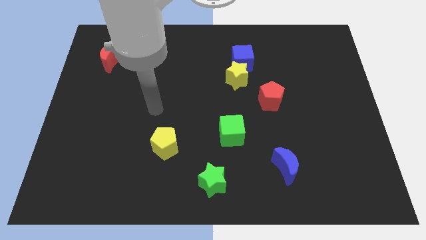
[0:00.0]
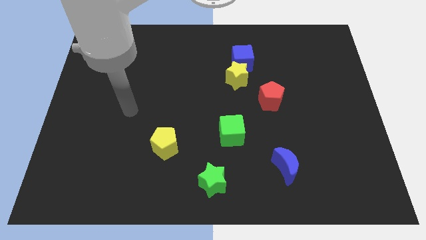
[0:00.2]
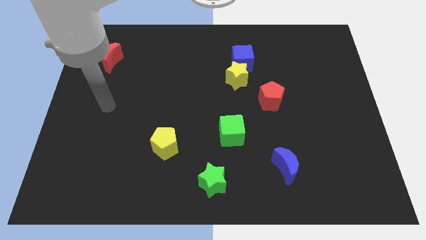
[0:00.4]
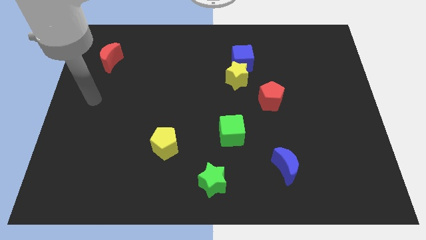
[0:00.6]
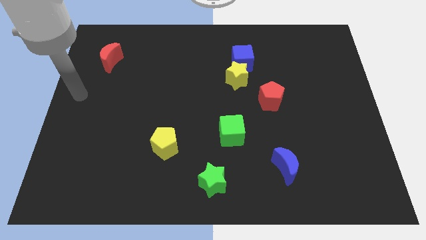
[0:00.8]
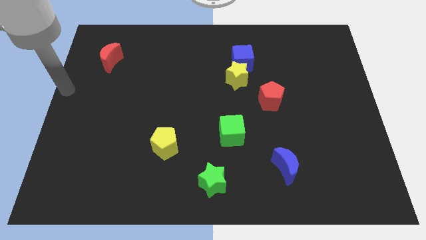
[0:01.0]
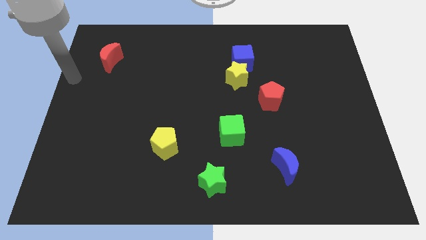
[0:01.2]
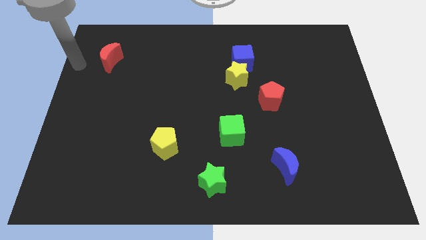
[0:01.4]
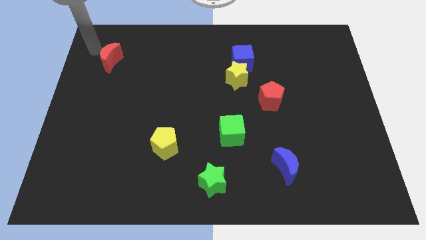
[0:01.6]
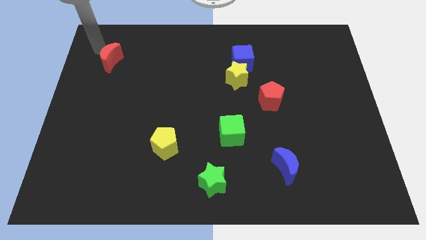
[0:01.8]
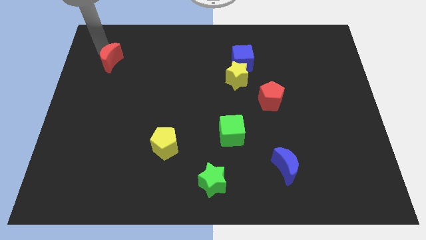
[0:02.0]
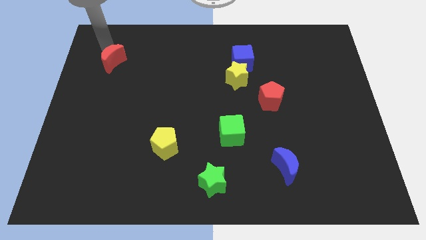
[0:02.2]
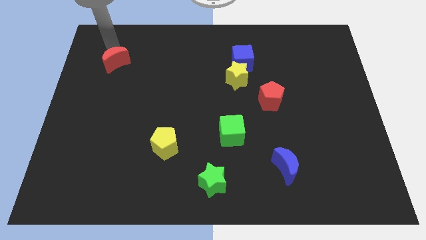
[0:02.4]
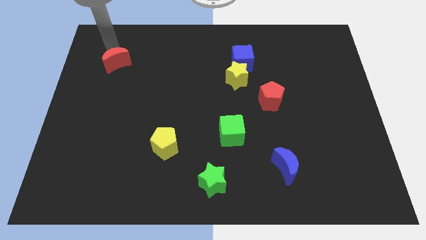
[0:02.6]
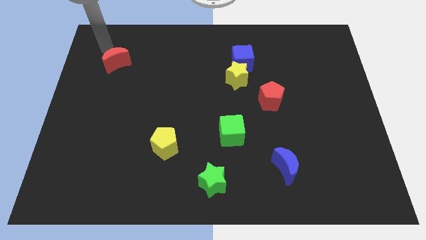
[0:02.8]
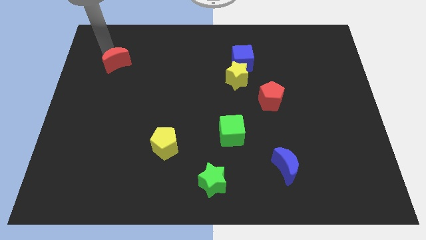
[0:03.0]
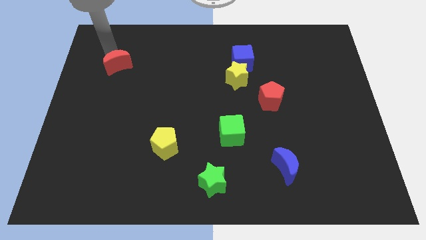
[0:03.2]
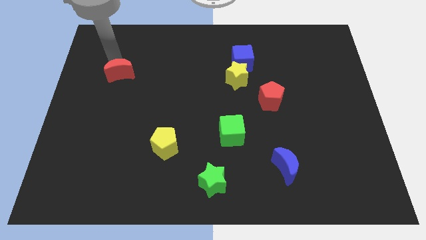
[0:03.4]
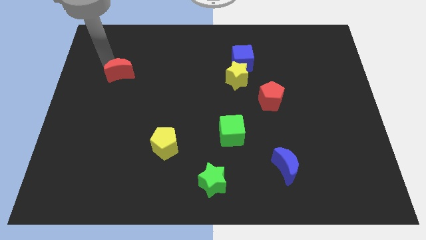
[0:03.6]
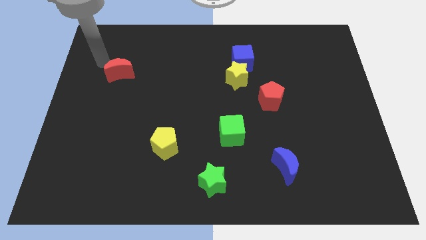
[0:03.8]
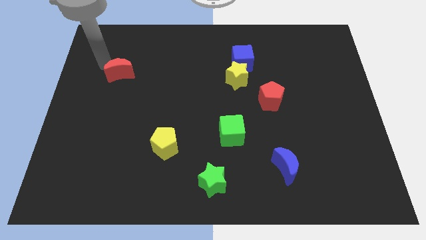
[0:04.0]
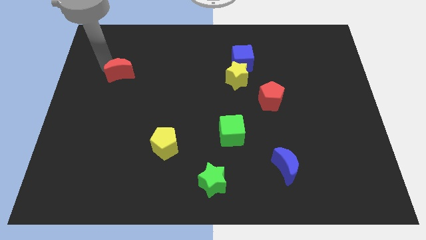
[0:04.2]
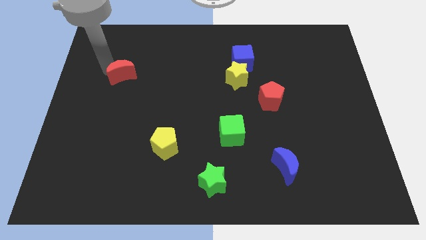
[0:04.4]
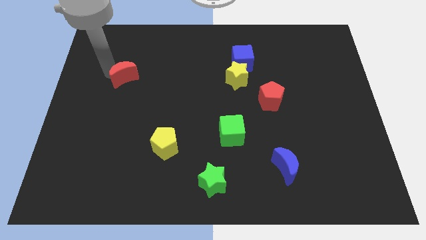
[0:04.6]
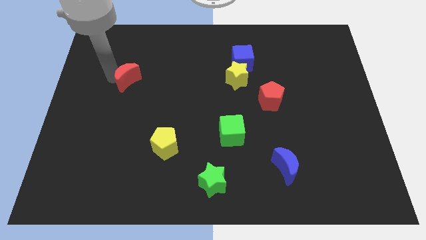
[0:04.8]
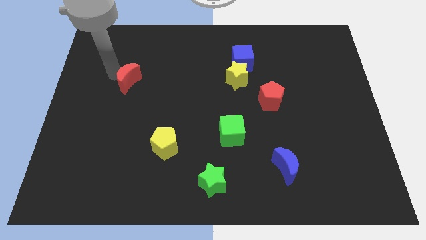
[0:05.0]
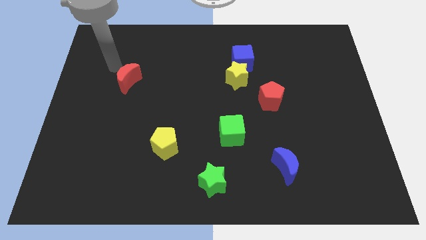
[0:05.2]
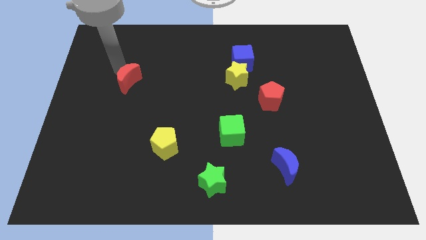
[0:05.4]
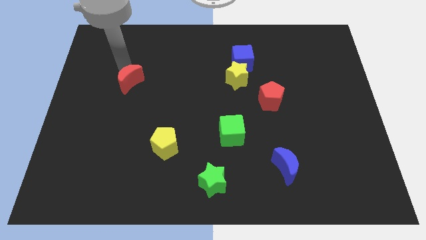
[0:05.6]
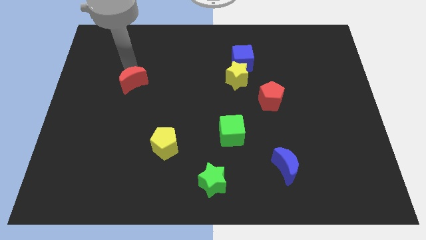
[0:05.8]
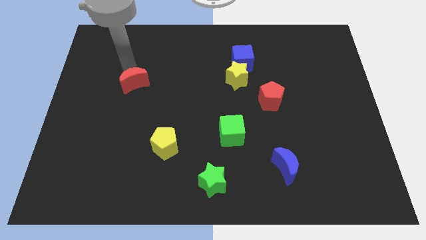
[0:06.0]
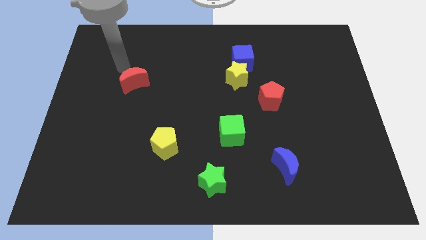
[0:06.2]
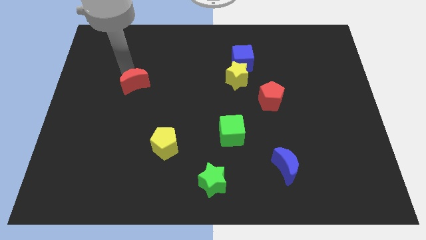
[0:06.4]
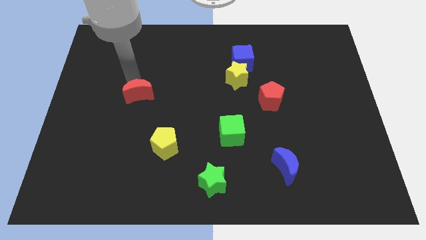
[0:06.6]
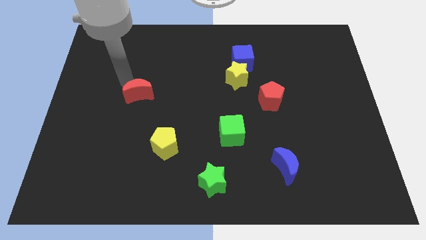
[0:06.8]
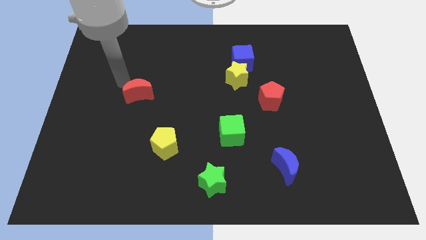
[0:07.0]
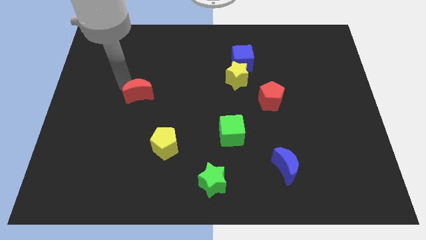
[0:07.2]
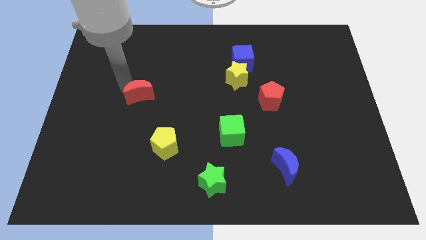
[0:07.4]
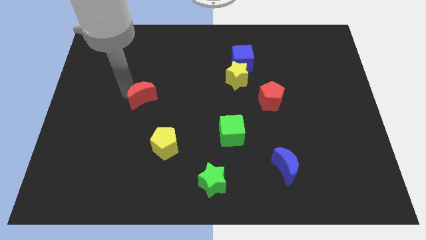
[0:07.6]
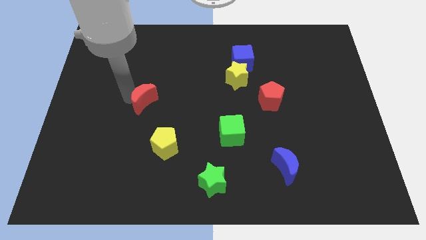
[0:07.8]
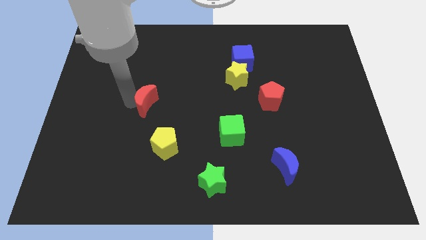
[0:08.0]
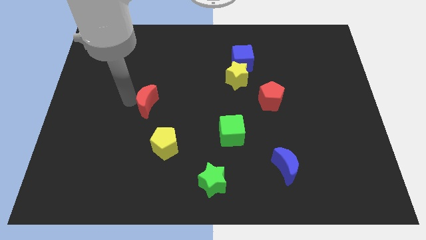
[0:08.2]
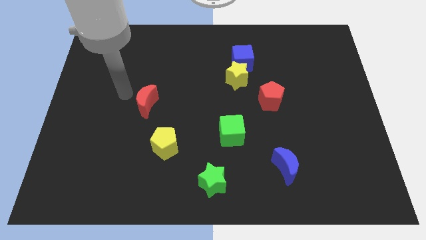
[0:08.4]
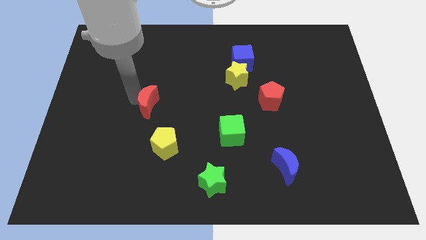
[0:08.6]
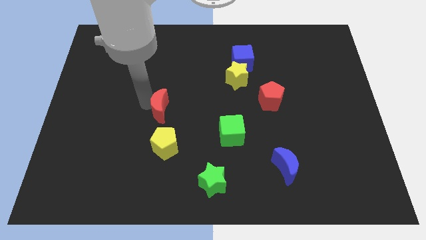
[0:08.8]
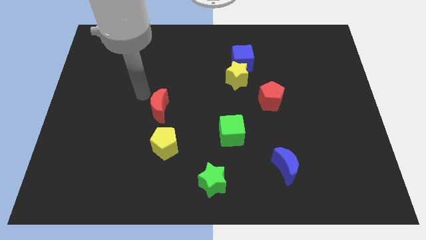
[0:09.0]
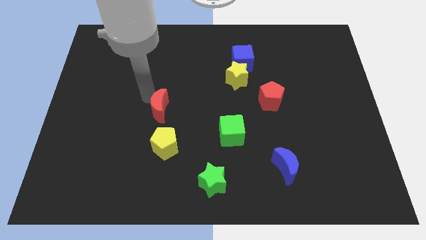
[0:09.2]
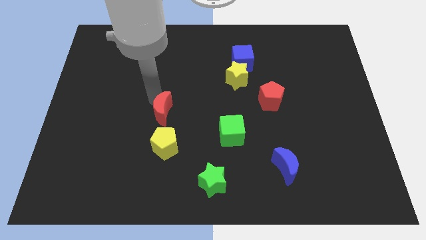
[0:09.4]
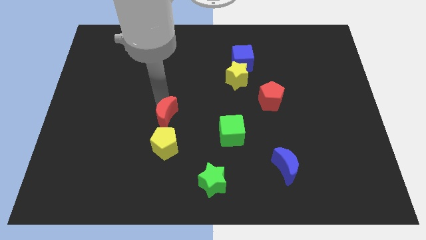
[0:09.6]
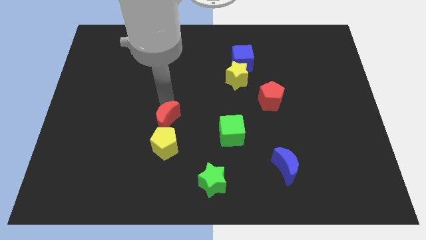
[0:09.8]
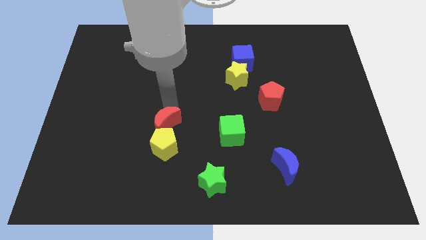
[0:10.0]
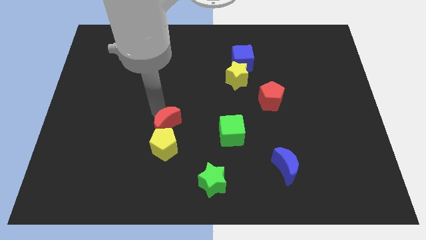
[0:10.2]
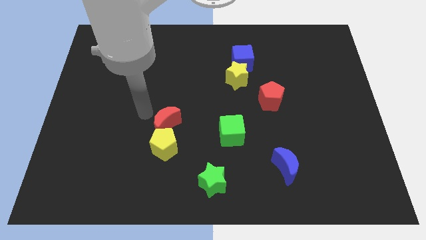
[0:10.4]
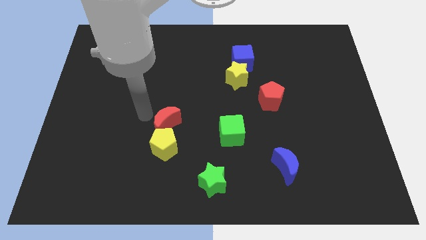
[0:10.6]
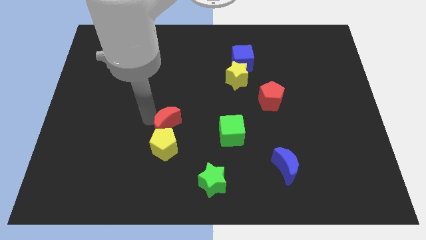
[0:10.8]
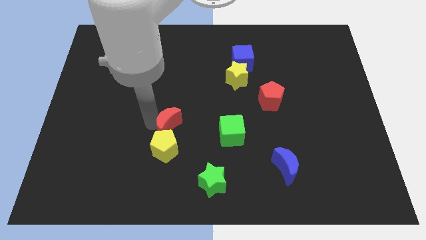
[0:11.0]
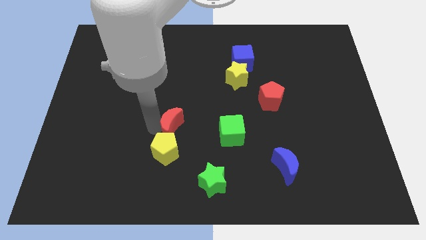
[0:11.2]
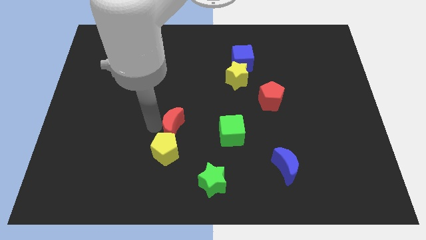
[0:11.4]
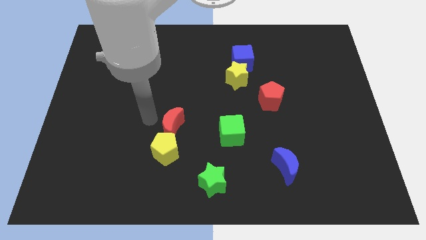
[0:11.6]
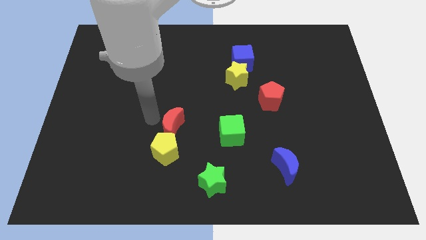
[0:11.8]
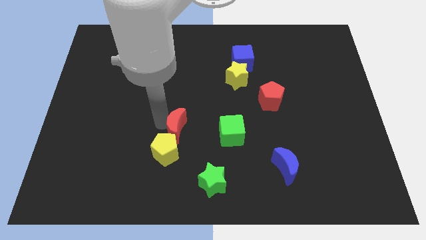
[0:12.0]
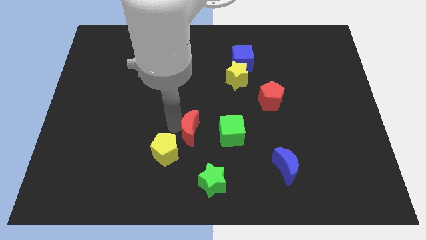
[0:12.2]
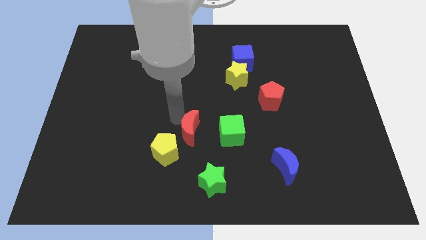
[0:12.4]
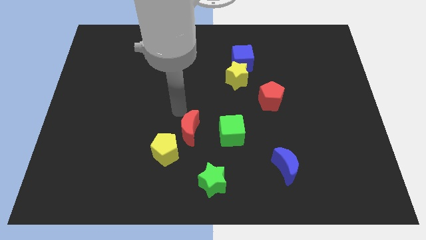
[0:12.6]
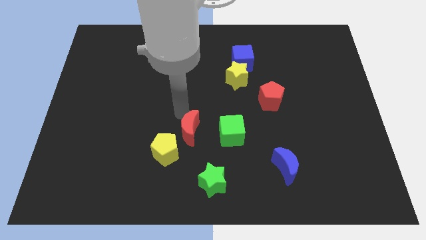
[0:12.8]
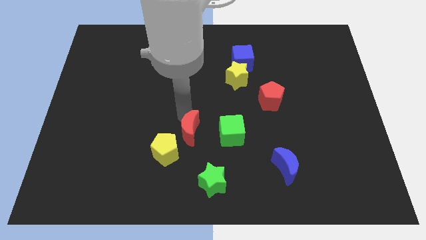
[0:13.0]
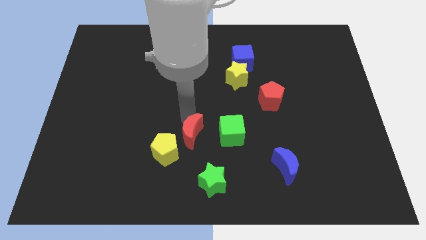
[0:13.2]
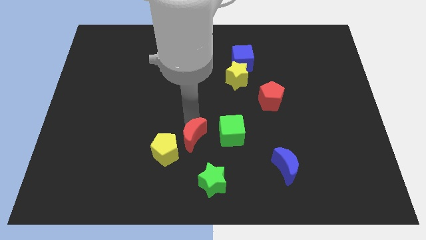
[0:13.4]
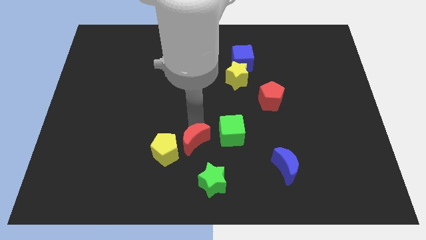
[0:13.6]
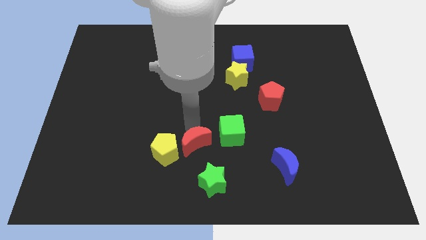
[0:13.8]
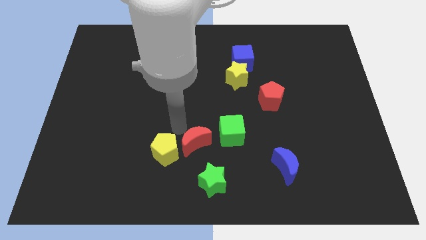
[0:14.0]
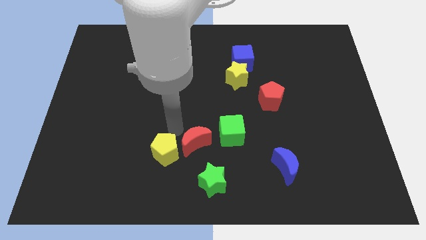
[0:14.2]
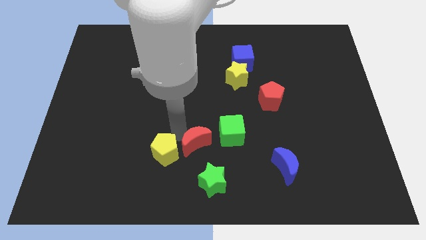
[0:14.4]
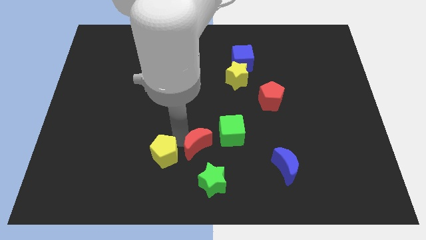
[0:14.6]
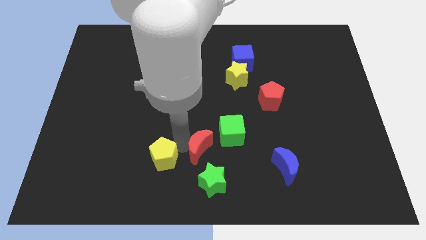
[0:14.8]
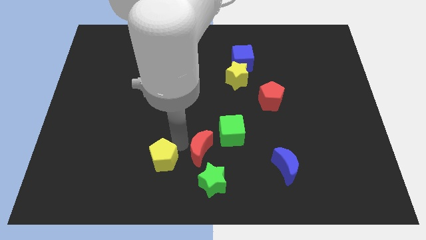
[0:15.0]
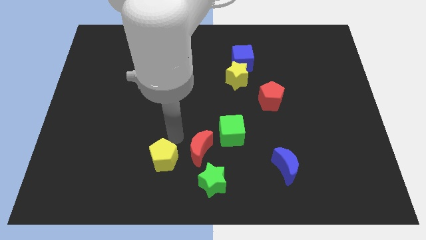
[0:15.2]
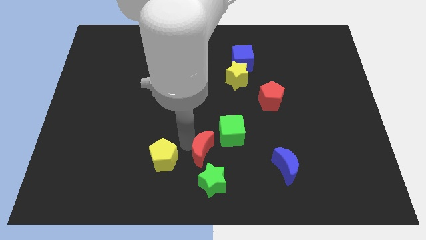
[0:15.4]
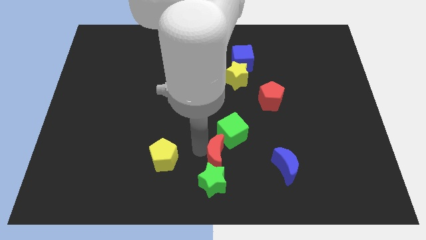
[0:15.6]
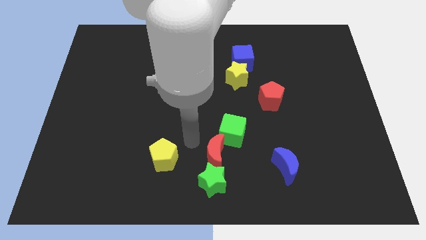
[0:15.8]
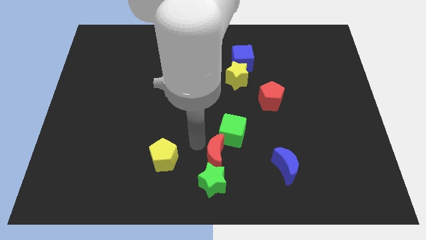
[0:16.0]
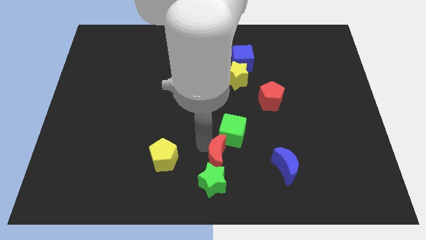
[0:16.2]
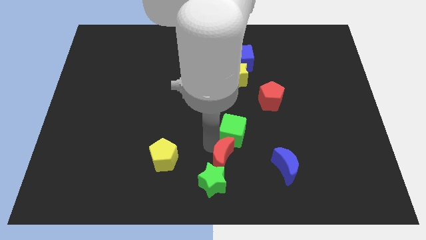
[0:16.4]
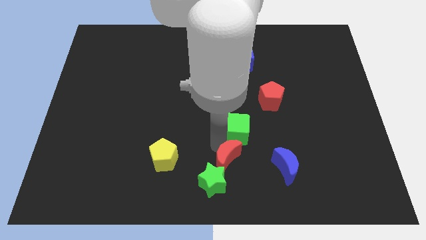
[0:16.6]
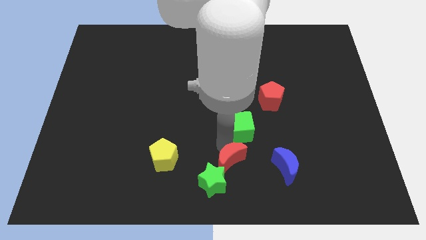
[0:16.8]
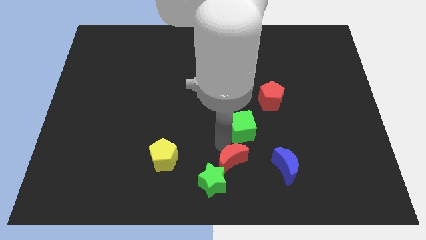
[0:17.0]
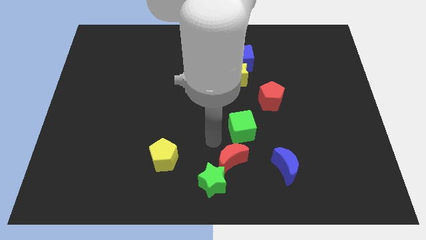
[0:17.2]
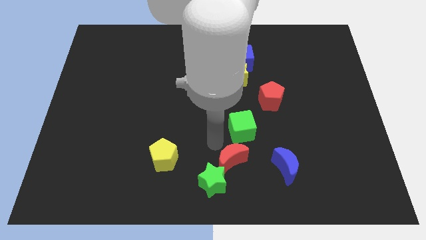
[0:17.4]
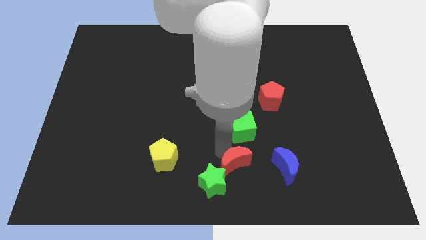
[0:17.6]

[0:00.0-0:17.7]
push the red moon right of the green star
